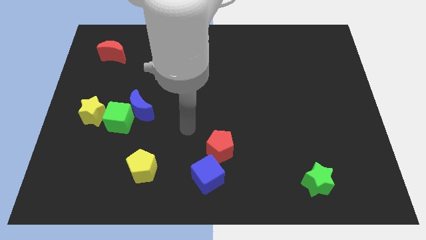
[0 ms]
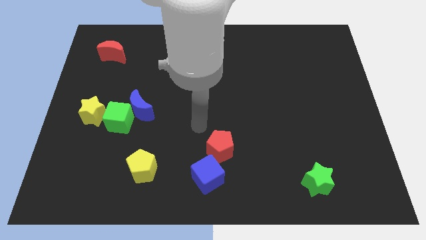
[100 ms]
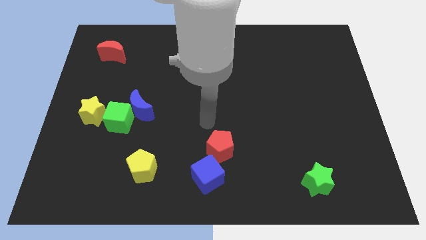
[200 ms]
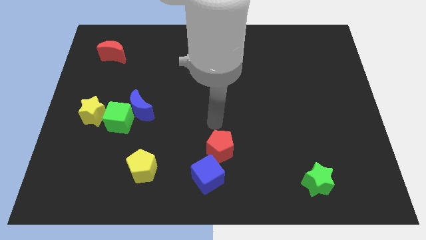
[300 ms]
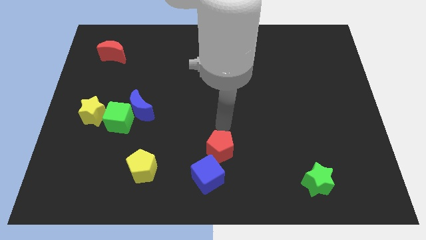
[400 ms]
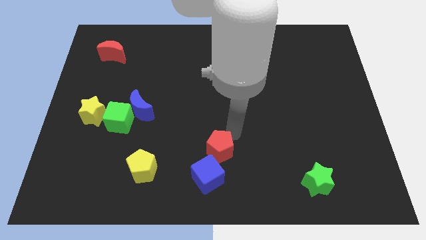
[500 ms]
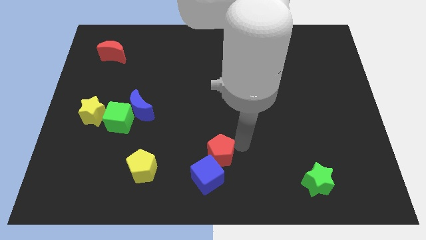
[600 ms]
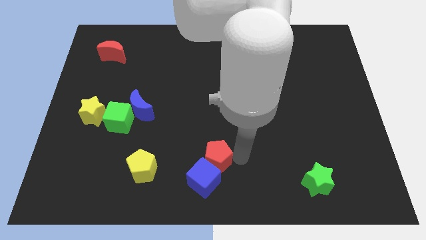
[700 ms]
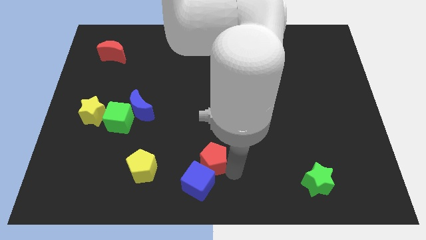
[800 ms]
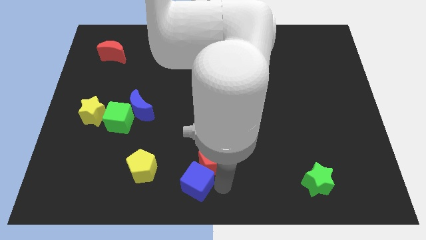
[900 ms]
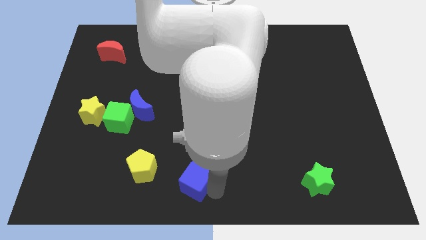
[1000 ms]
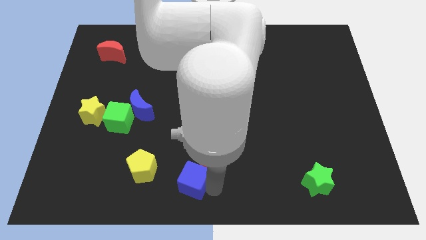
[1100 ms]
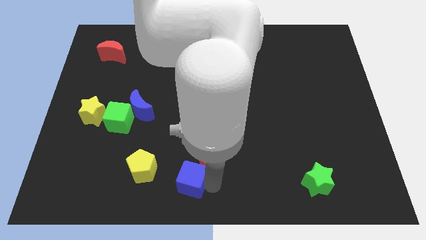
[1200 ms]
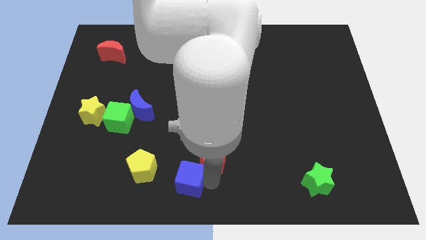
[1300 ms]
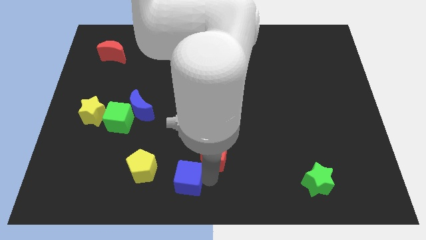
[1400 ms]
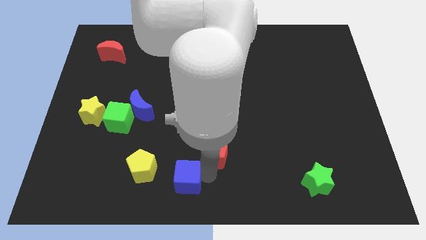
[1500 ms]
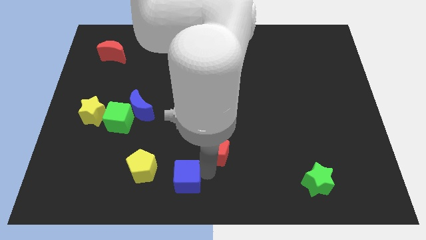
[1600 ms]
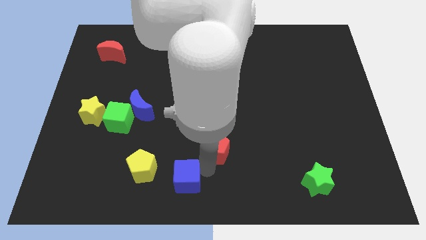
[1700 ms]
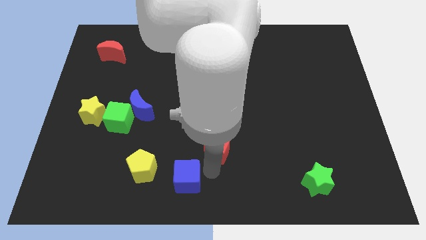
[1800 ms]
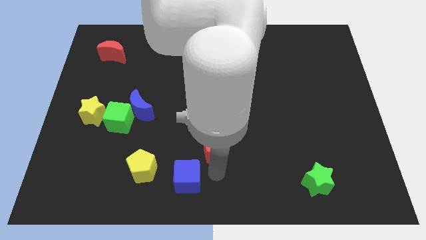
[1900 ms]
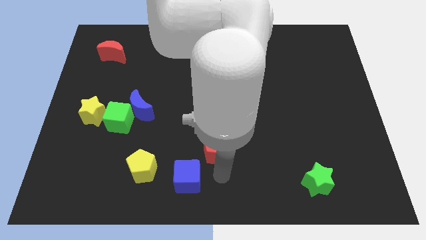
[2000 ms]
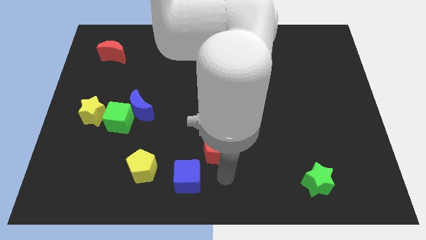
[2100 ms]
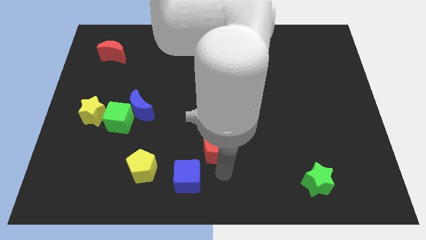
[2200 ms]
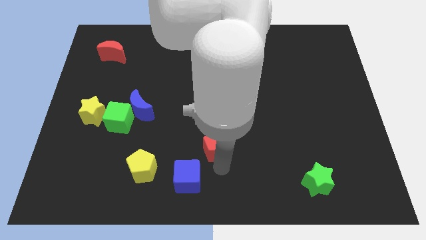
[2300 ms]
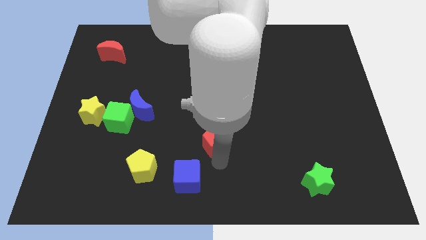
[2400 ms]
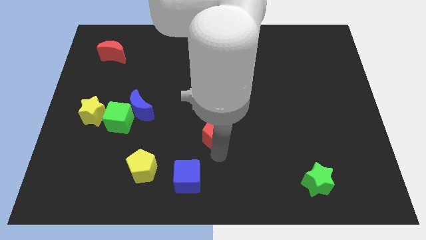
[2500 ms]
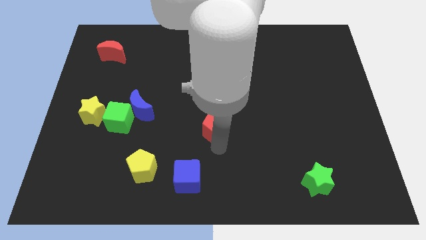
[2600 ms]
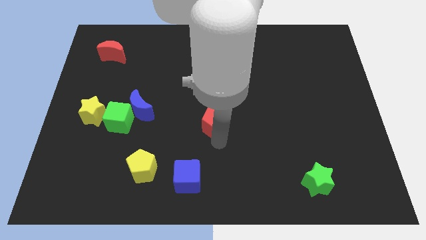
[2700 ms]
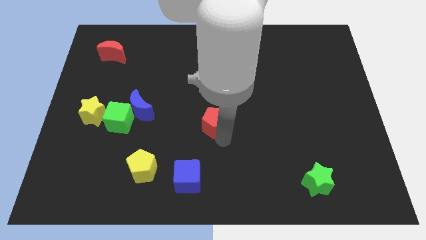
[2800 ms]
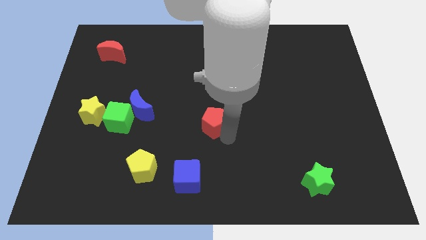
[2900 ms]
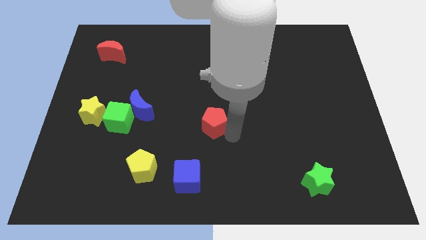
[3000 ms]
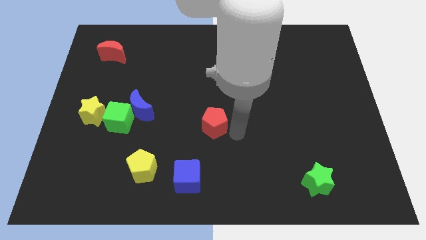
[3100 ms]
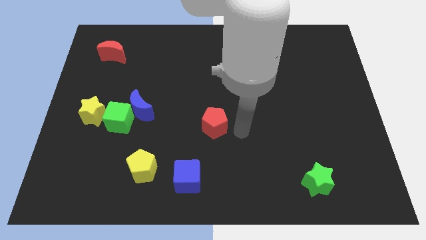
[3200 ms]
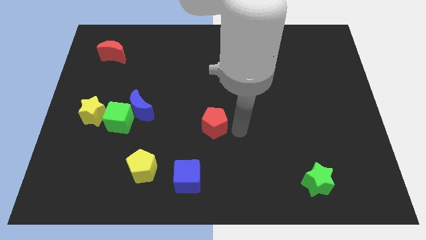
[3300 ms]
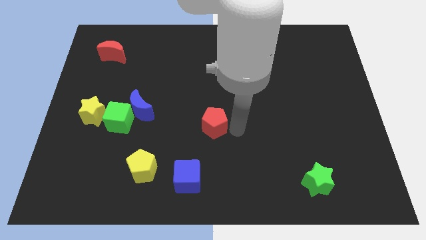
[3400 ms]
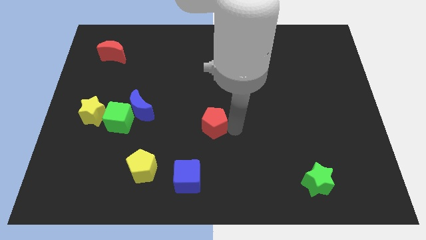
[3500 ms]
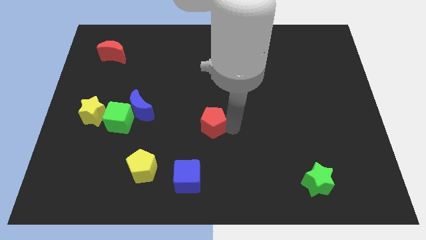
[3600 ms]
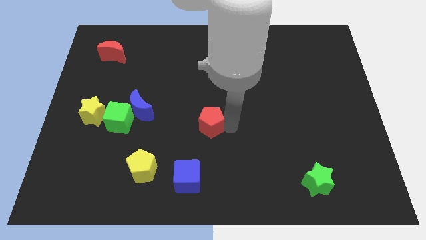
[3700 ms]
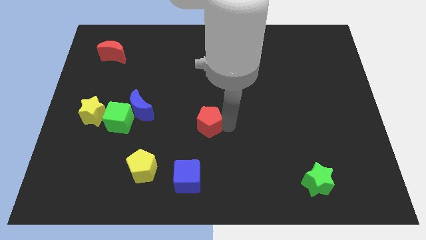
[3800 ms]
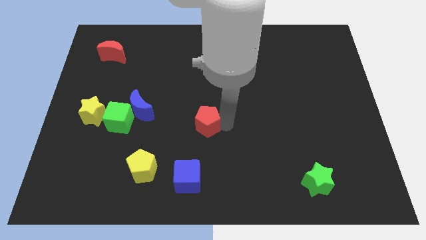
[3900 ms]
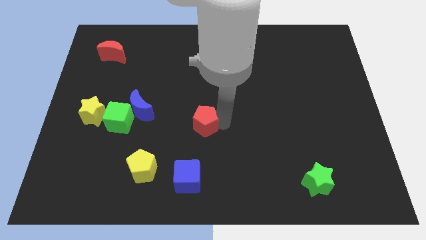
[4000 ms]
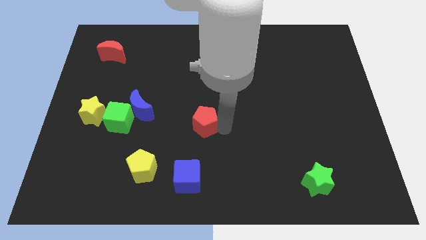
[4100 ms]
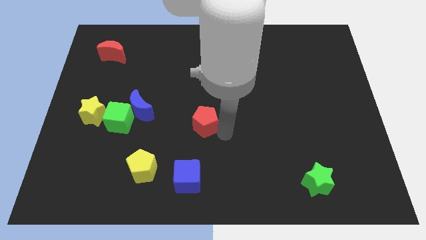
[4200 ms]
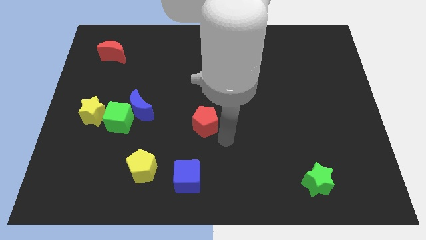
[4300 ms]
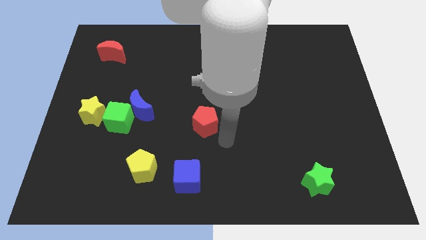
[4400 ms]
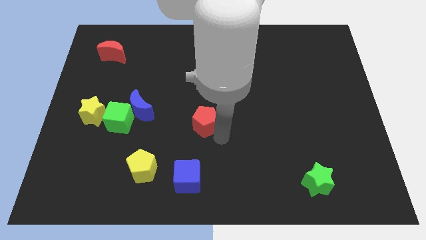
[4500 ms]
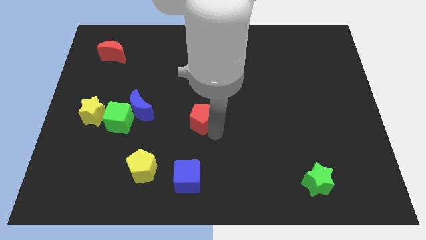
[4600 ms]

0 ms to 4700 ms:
slide the red pentagon to the right of the blue moon

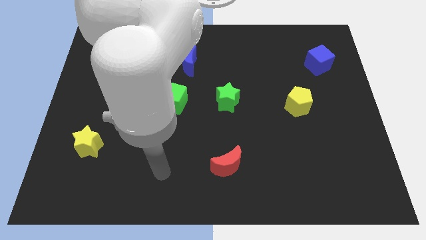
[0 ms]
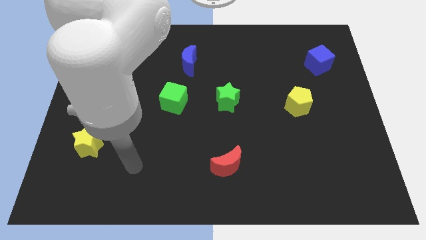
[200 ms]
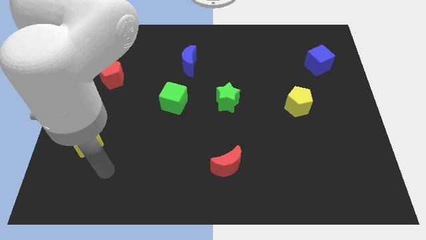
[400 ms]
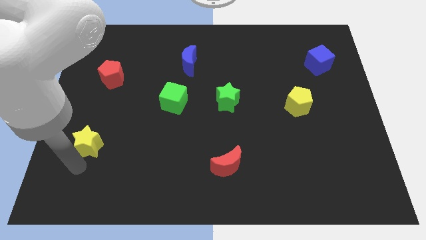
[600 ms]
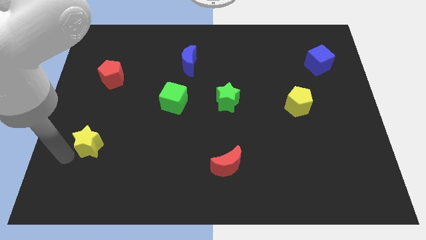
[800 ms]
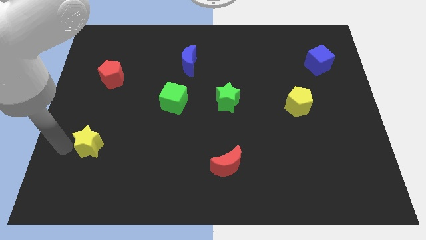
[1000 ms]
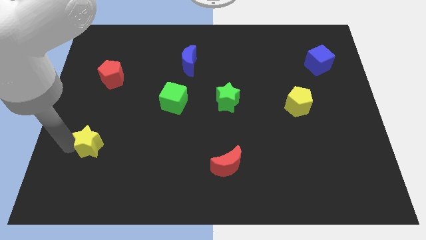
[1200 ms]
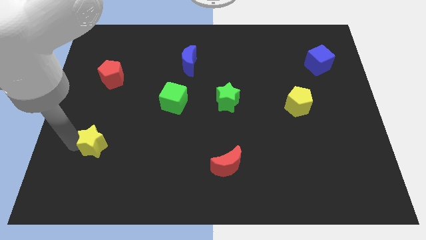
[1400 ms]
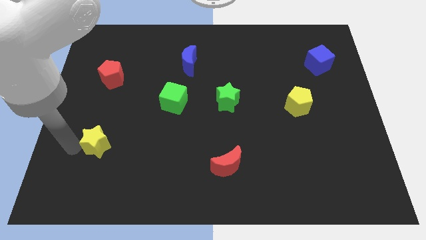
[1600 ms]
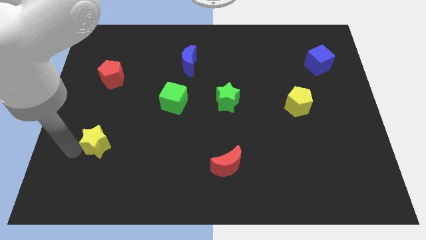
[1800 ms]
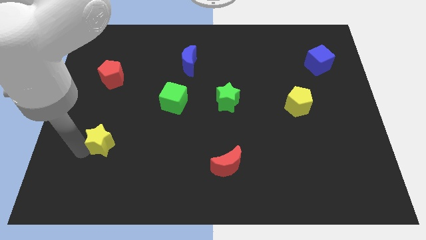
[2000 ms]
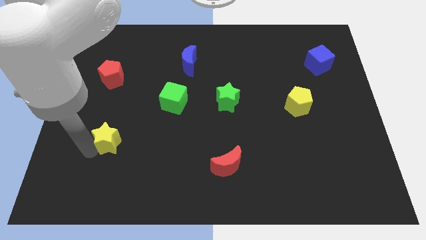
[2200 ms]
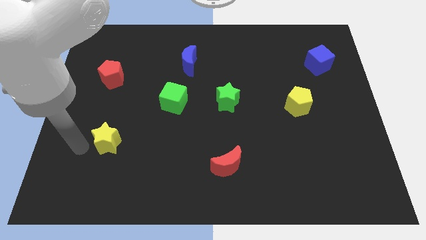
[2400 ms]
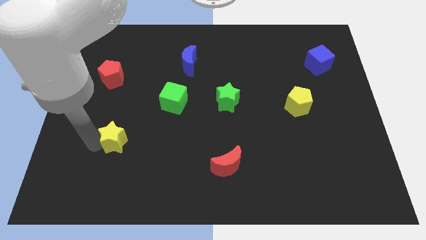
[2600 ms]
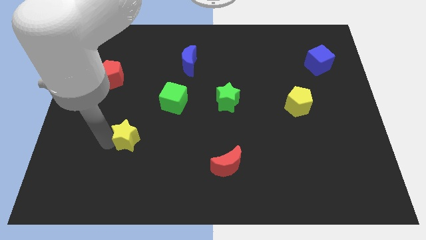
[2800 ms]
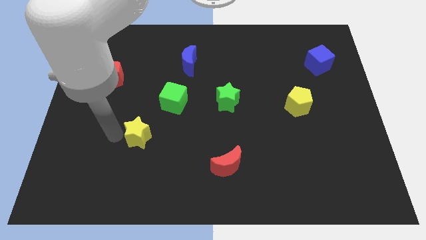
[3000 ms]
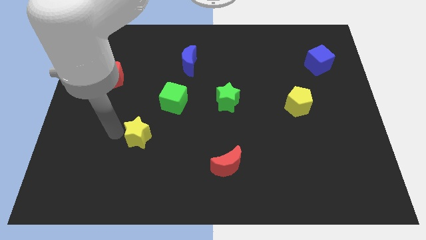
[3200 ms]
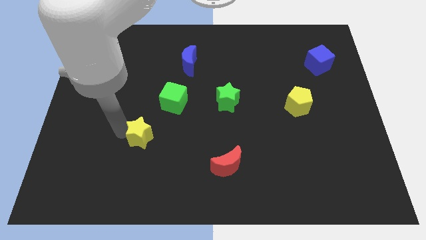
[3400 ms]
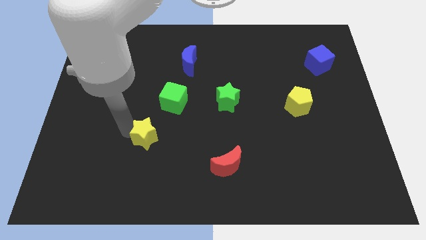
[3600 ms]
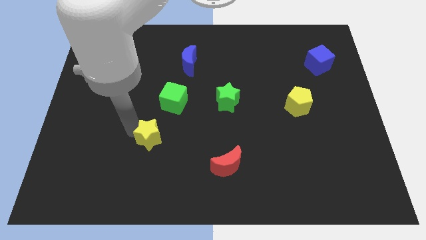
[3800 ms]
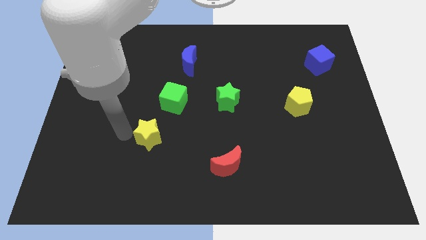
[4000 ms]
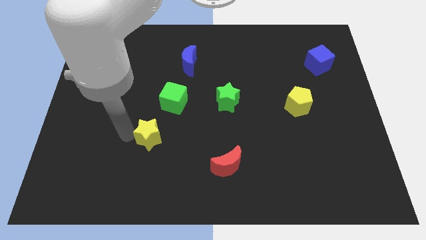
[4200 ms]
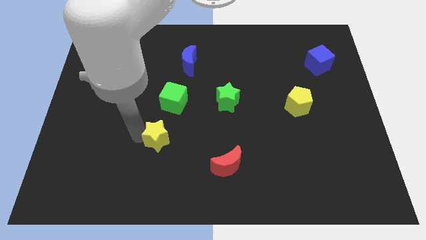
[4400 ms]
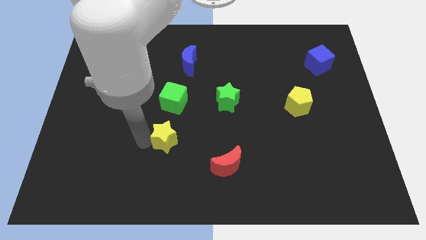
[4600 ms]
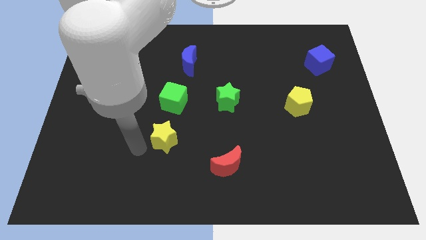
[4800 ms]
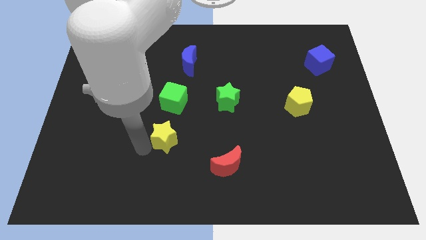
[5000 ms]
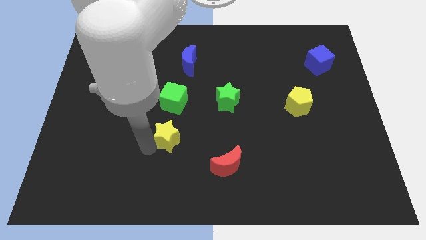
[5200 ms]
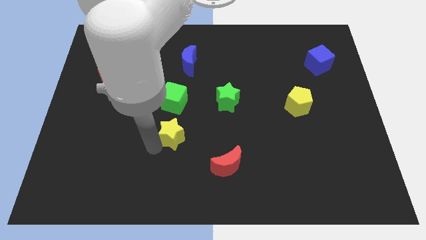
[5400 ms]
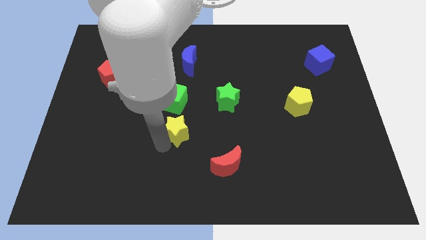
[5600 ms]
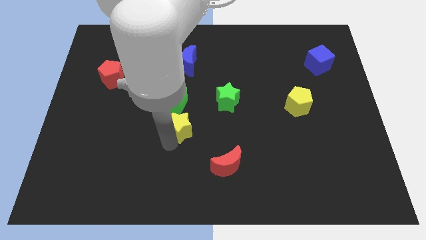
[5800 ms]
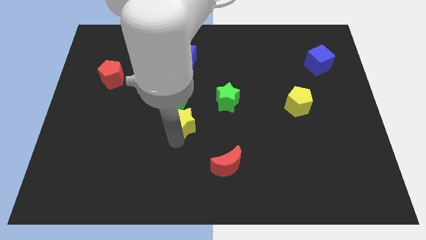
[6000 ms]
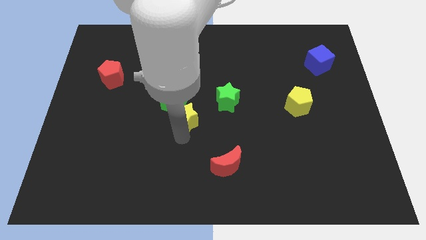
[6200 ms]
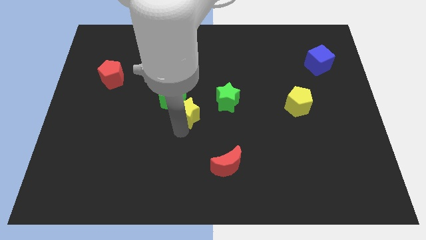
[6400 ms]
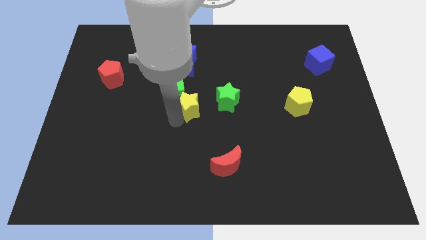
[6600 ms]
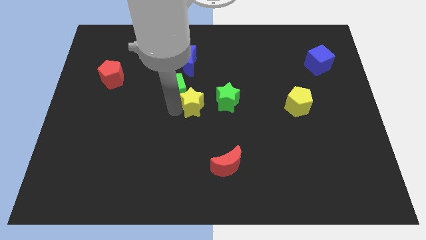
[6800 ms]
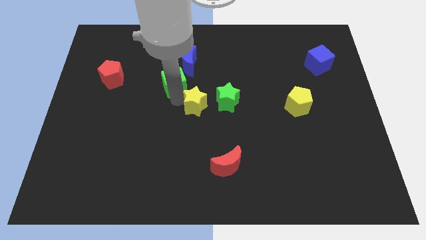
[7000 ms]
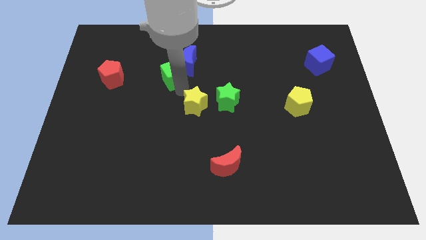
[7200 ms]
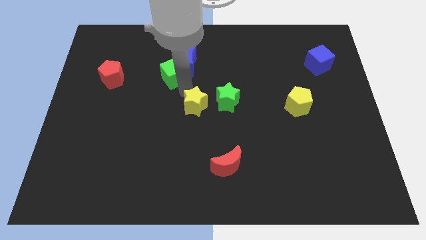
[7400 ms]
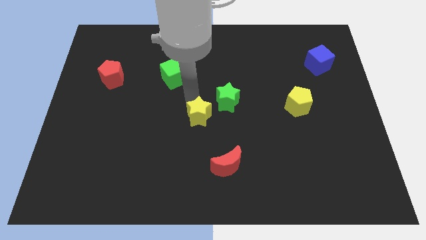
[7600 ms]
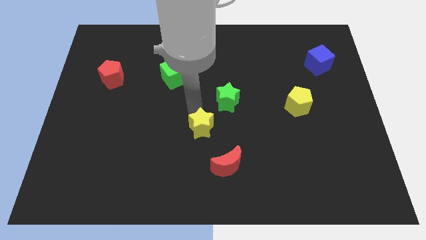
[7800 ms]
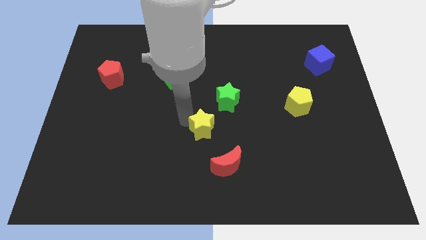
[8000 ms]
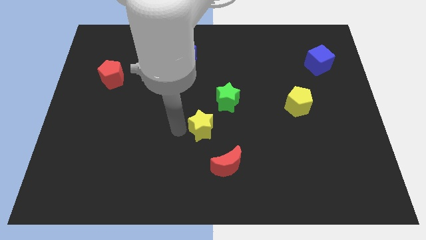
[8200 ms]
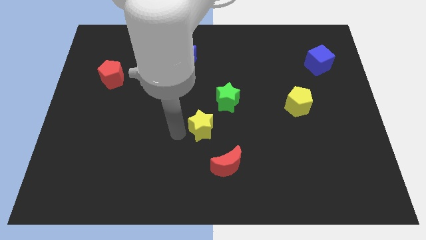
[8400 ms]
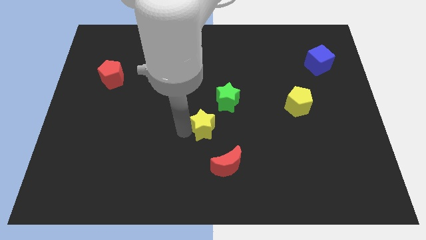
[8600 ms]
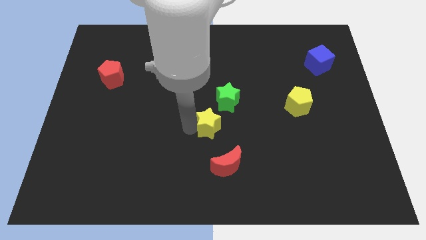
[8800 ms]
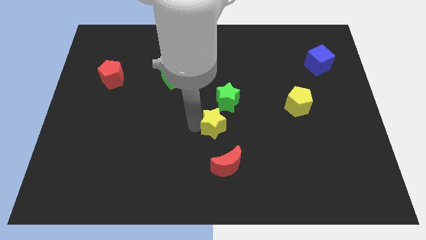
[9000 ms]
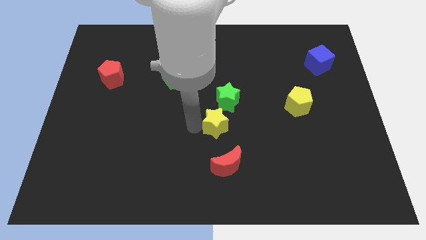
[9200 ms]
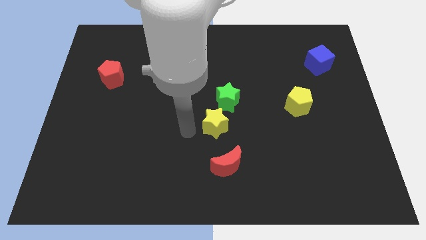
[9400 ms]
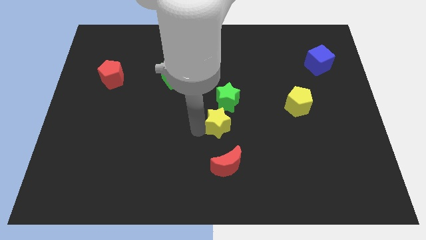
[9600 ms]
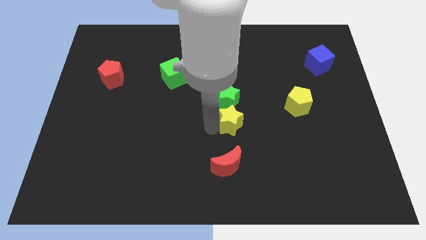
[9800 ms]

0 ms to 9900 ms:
move the yellow star to the bottom right side of the green star
